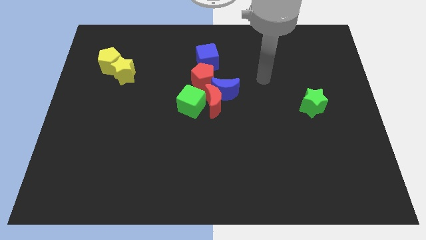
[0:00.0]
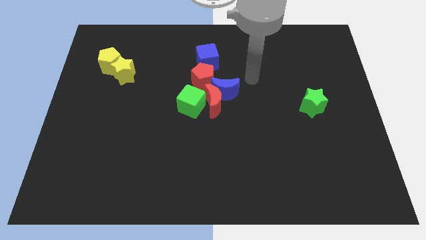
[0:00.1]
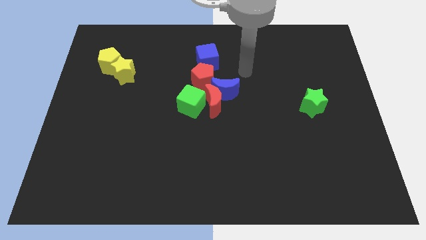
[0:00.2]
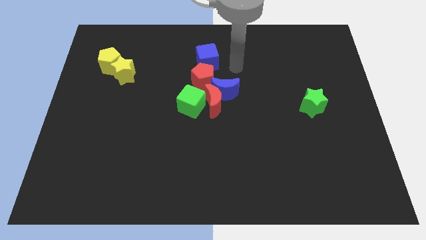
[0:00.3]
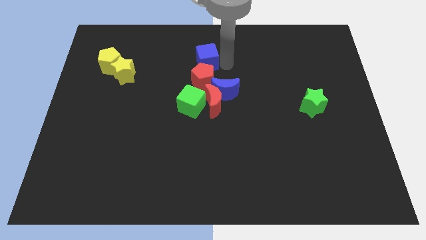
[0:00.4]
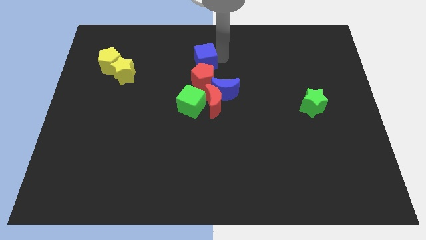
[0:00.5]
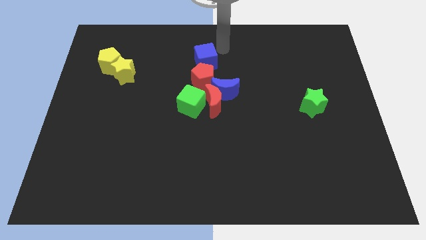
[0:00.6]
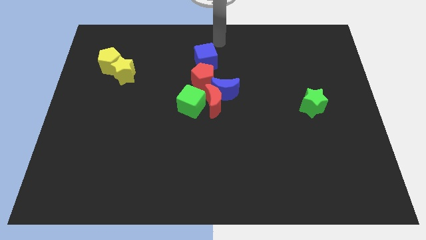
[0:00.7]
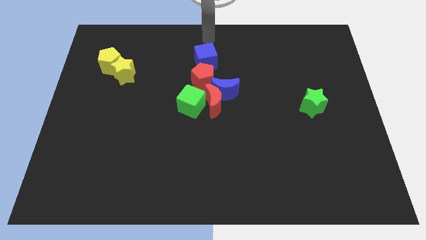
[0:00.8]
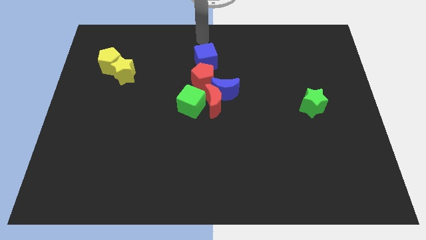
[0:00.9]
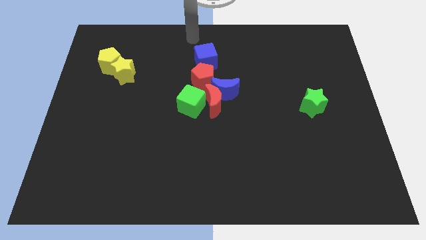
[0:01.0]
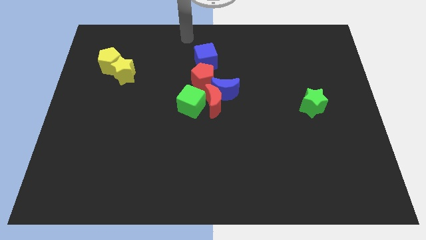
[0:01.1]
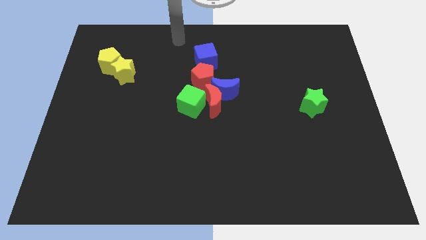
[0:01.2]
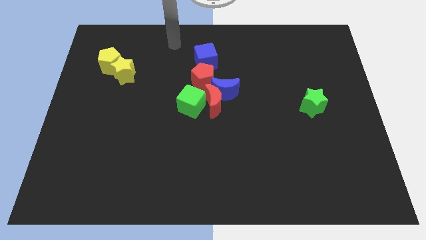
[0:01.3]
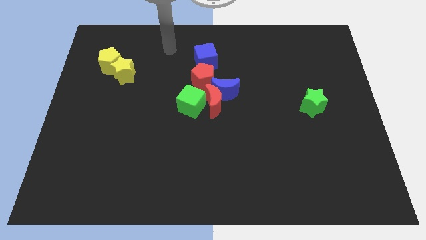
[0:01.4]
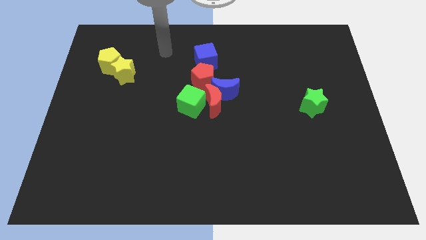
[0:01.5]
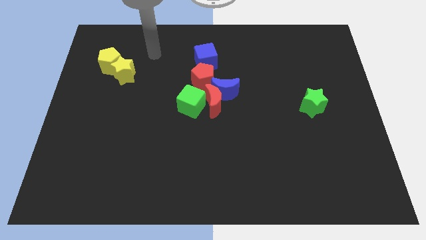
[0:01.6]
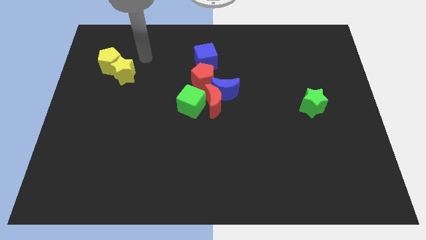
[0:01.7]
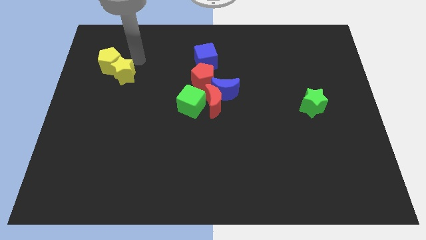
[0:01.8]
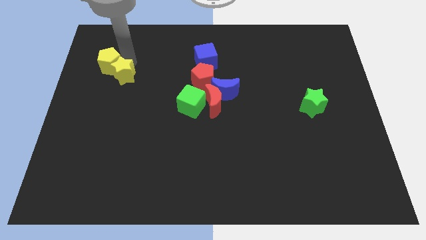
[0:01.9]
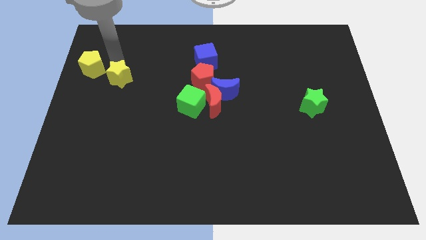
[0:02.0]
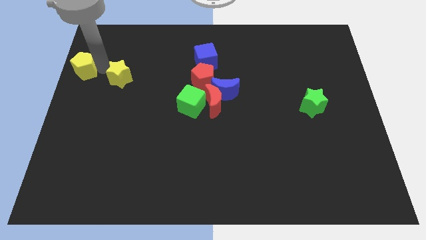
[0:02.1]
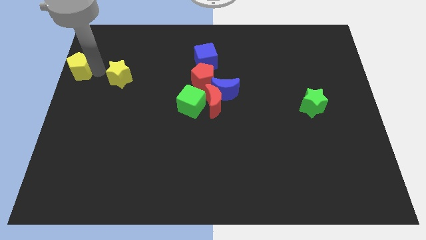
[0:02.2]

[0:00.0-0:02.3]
pull the yellow star apart from the yellow pentagon

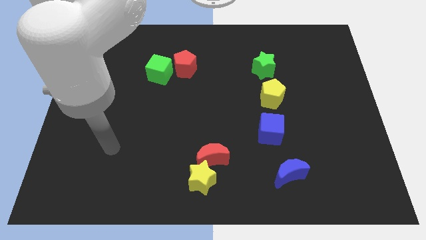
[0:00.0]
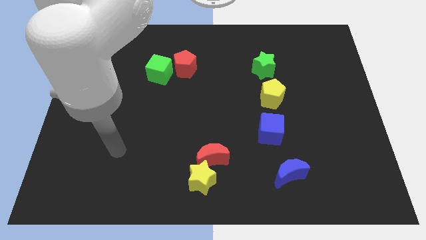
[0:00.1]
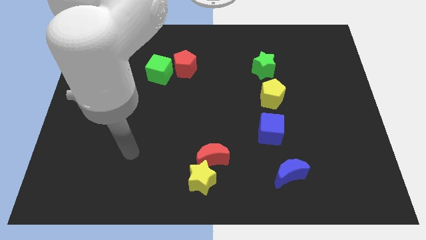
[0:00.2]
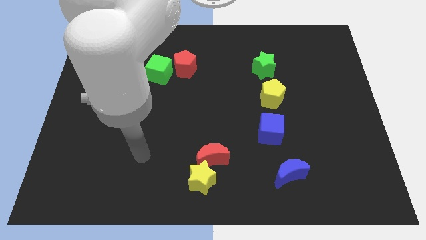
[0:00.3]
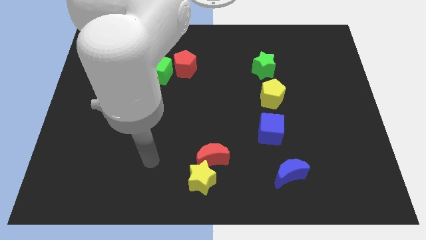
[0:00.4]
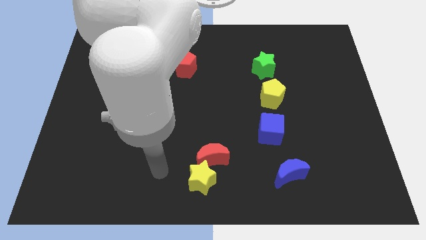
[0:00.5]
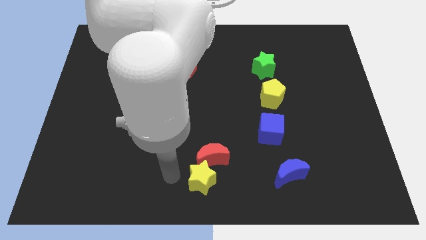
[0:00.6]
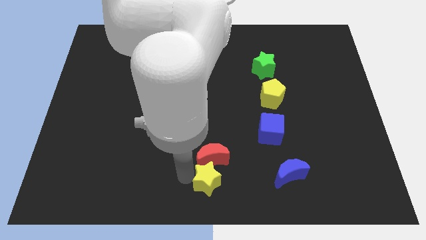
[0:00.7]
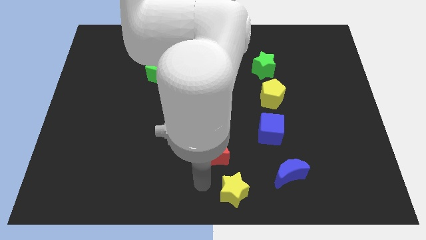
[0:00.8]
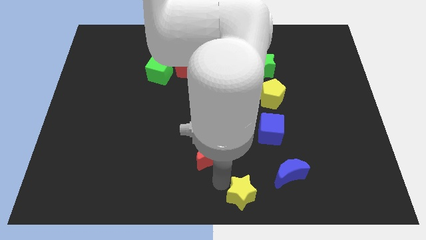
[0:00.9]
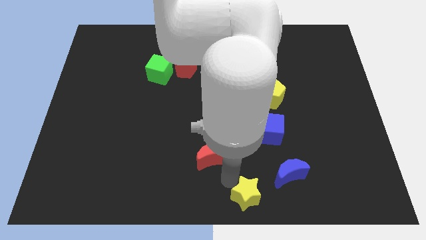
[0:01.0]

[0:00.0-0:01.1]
move the red moon away from the yellow star

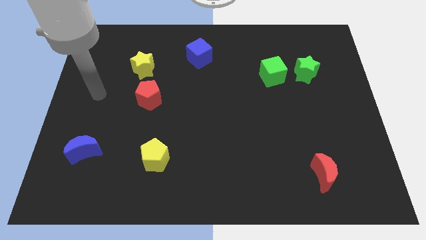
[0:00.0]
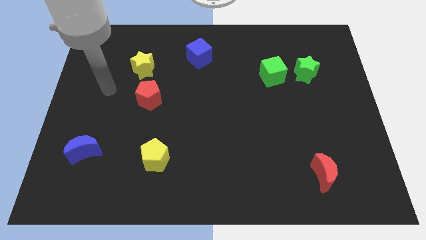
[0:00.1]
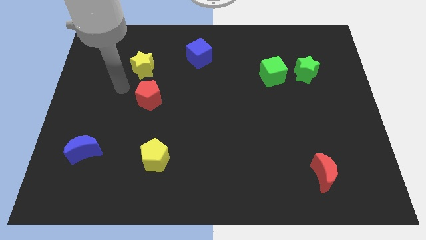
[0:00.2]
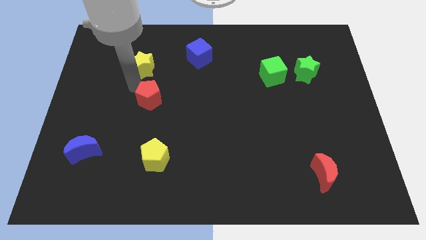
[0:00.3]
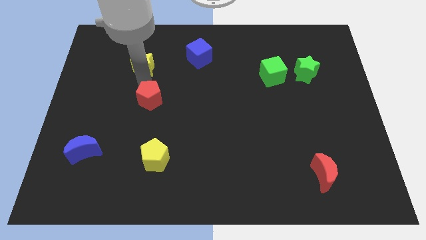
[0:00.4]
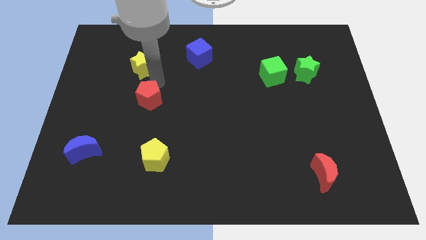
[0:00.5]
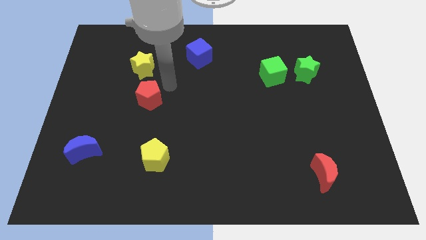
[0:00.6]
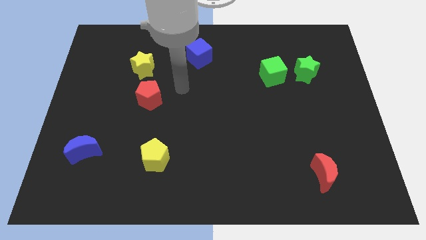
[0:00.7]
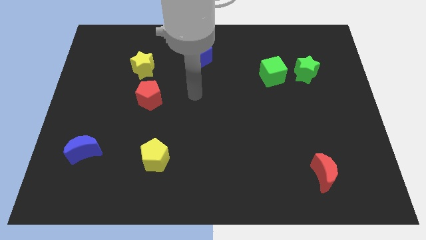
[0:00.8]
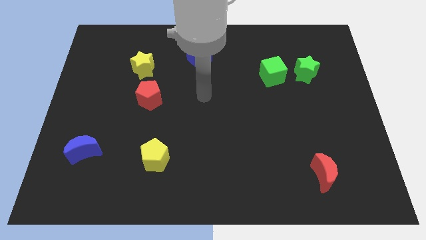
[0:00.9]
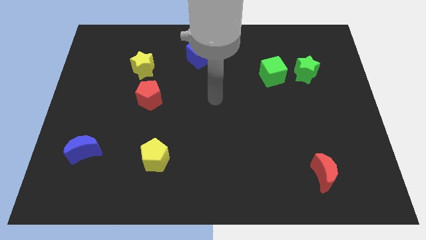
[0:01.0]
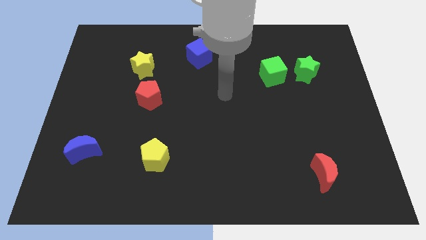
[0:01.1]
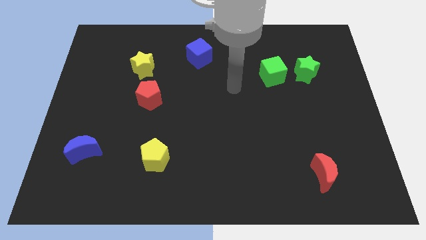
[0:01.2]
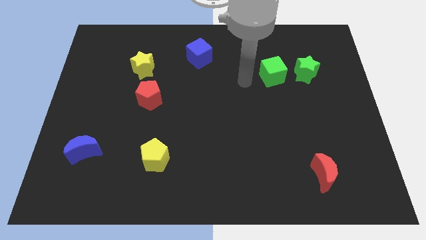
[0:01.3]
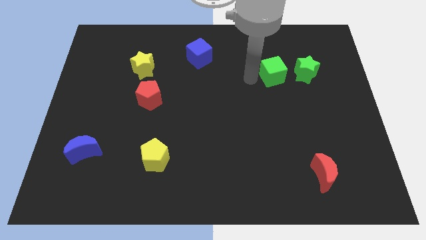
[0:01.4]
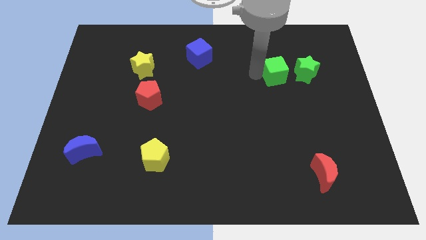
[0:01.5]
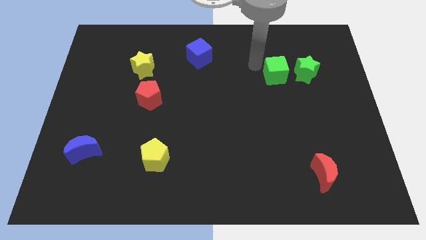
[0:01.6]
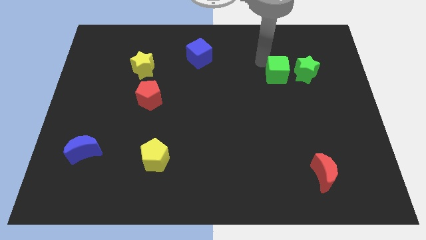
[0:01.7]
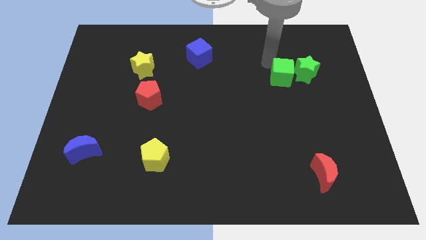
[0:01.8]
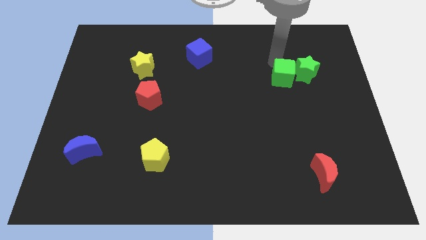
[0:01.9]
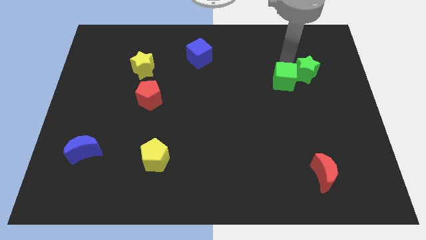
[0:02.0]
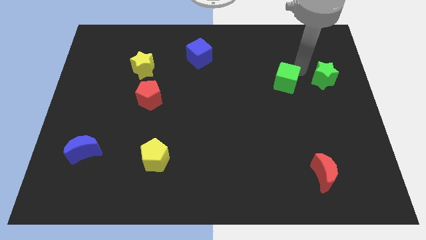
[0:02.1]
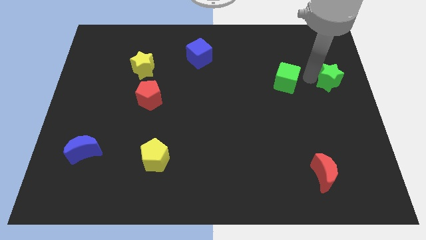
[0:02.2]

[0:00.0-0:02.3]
pull the green cube apart from the green star

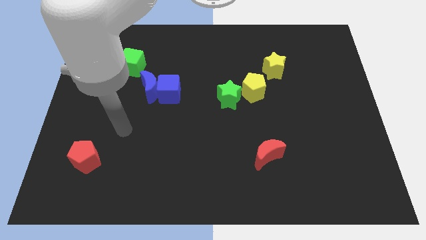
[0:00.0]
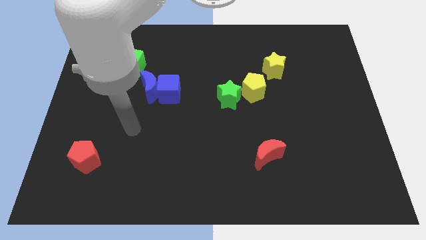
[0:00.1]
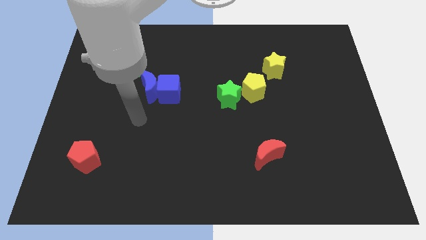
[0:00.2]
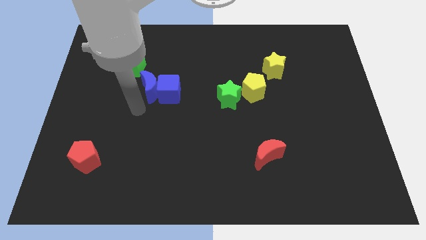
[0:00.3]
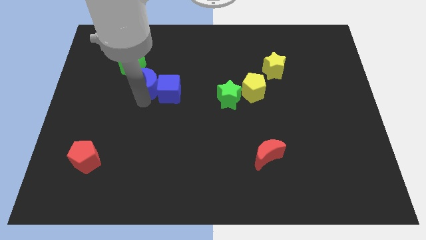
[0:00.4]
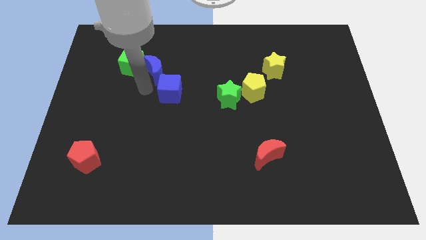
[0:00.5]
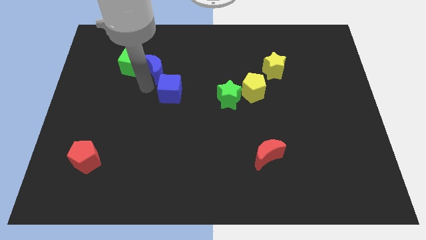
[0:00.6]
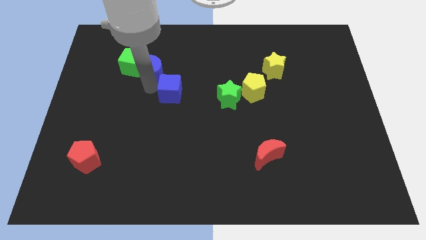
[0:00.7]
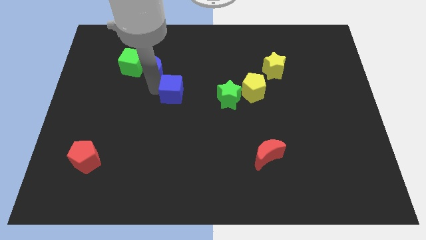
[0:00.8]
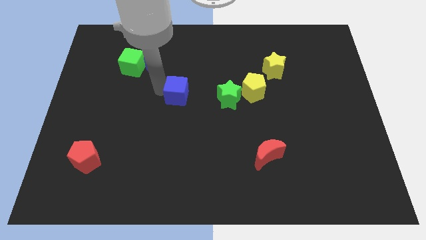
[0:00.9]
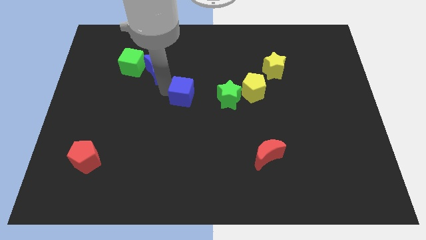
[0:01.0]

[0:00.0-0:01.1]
move the blue cube away from the blue moon

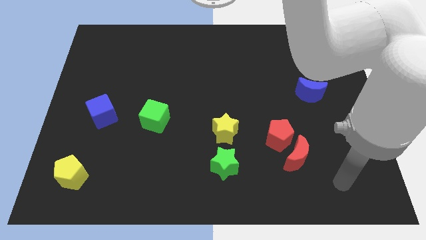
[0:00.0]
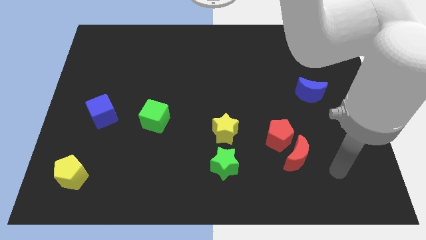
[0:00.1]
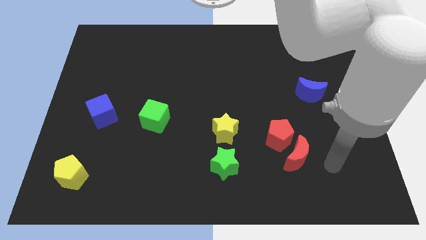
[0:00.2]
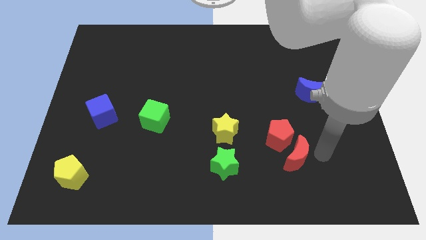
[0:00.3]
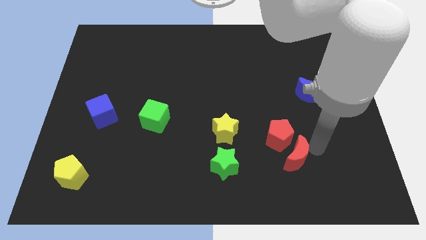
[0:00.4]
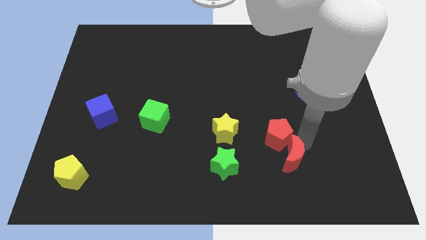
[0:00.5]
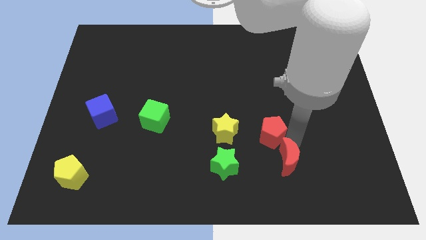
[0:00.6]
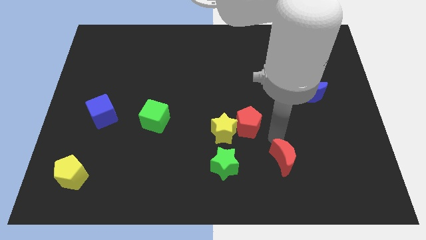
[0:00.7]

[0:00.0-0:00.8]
pull the red moon apart from the red pentagon

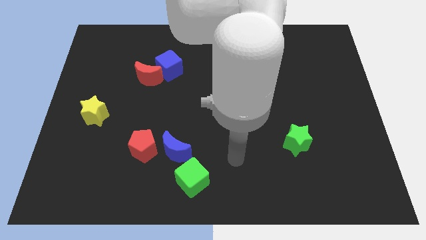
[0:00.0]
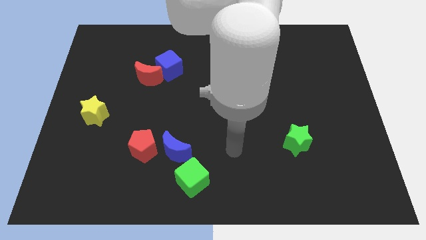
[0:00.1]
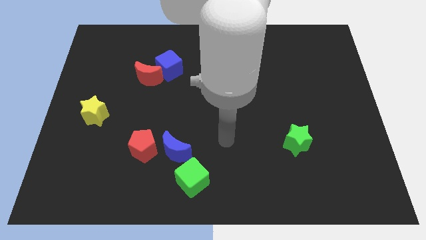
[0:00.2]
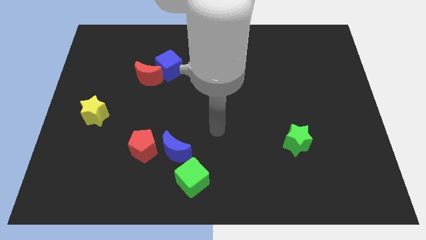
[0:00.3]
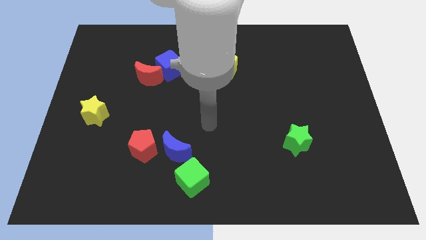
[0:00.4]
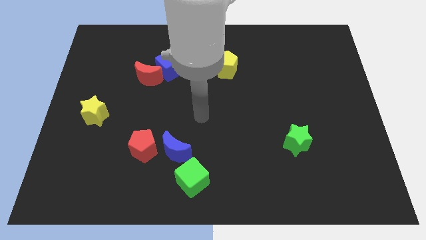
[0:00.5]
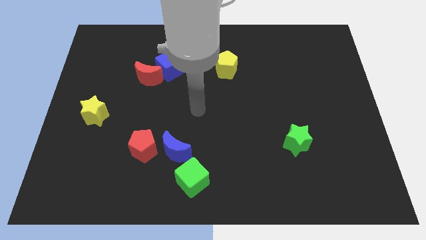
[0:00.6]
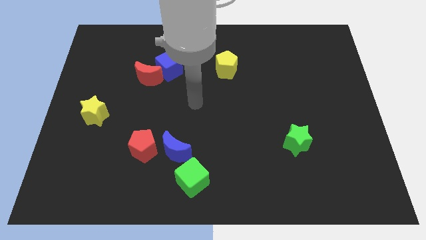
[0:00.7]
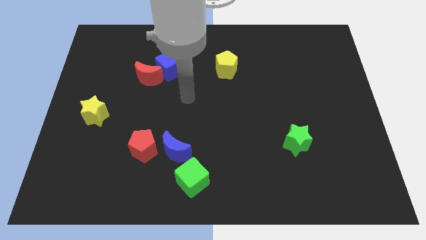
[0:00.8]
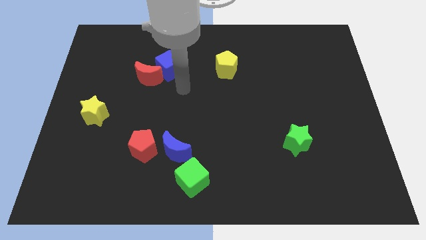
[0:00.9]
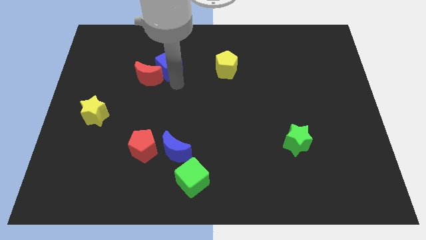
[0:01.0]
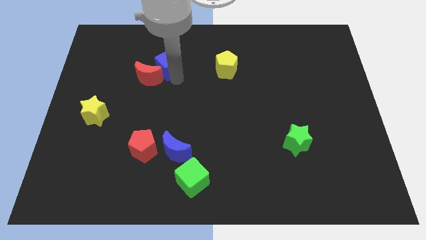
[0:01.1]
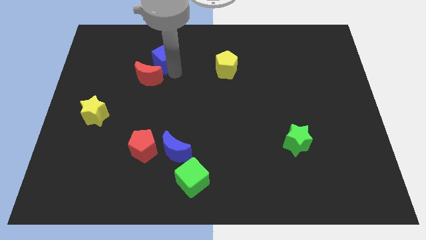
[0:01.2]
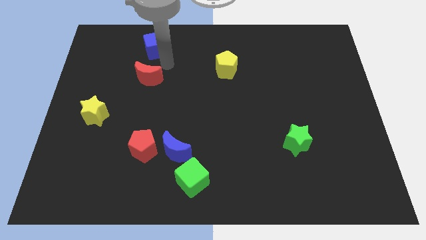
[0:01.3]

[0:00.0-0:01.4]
move the red moon away from the blue cube

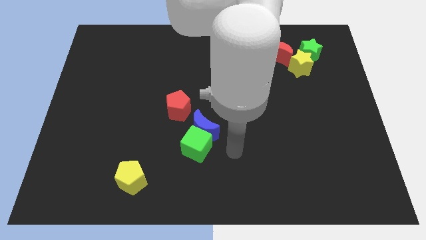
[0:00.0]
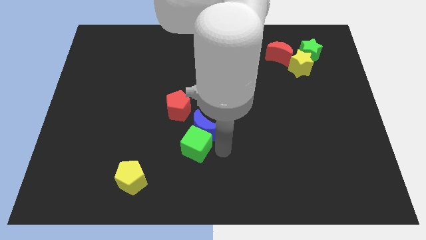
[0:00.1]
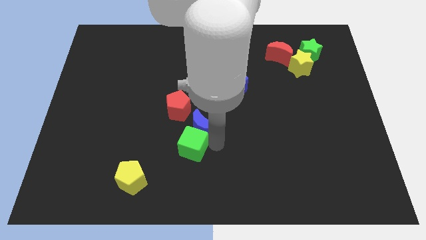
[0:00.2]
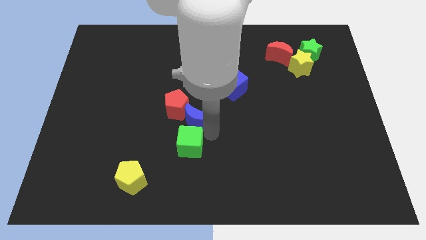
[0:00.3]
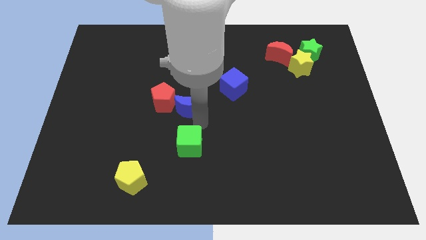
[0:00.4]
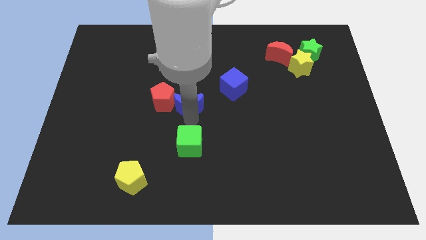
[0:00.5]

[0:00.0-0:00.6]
separate the green cube from the blue moon
